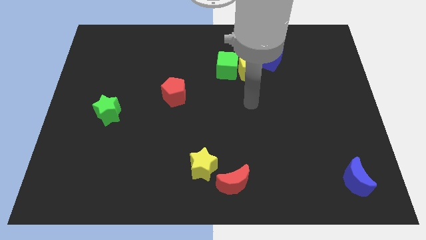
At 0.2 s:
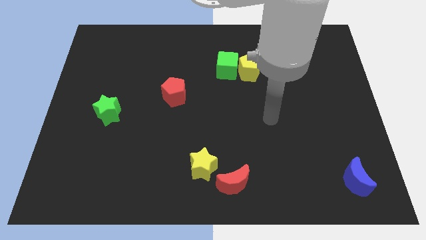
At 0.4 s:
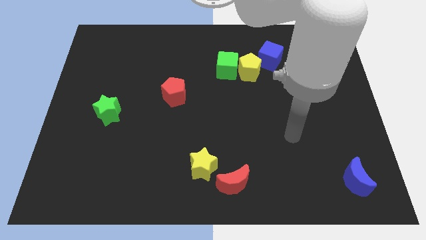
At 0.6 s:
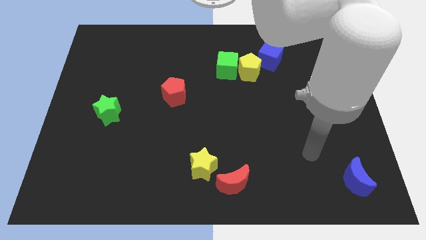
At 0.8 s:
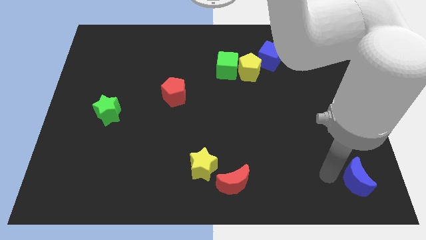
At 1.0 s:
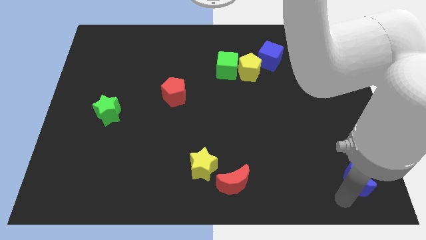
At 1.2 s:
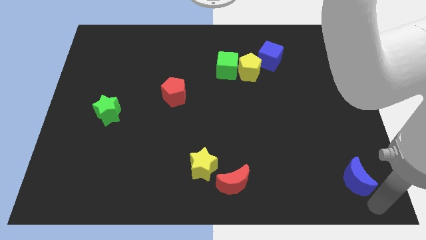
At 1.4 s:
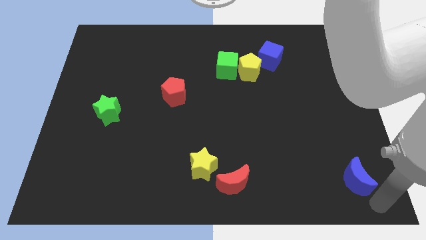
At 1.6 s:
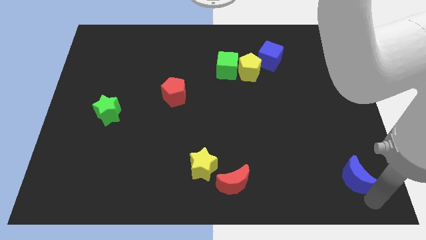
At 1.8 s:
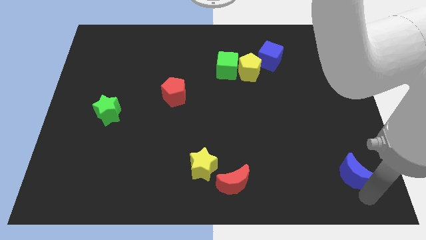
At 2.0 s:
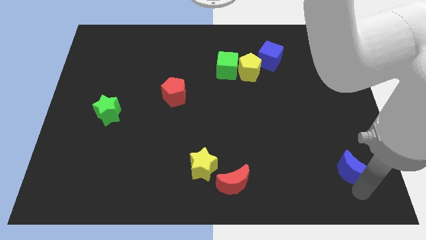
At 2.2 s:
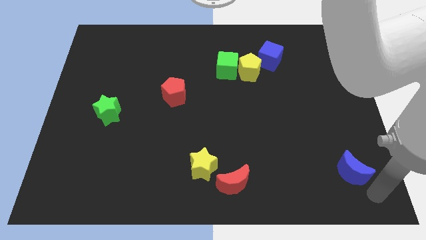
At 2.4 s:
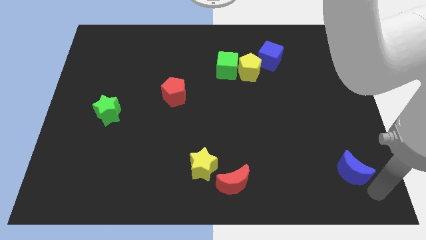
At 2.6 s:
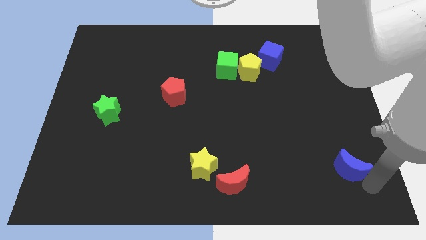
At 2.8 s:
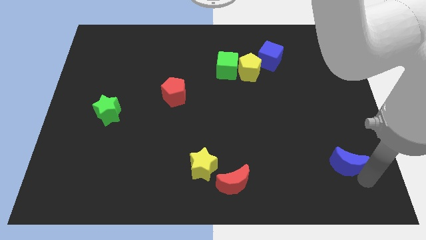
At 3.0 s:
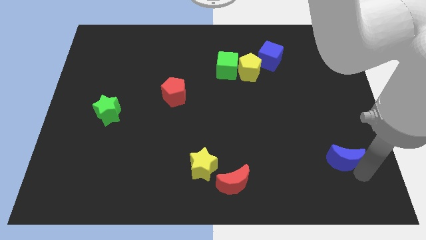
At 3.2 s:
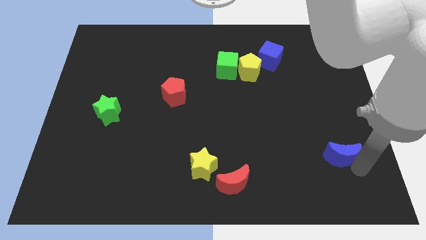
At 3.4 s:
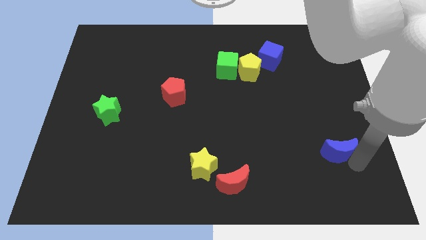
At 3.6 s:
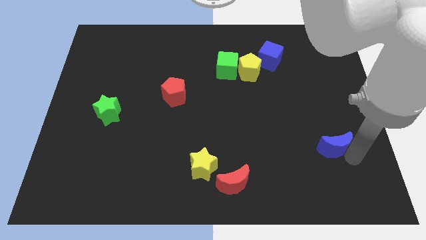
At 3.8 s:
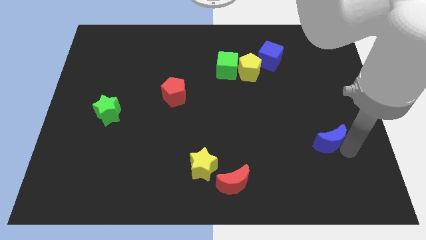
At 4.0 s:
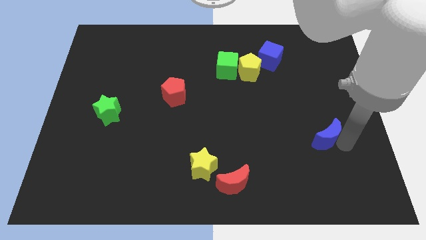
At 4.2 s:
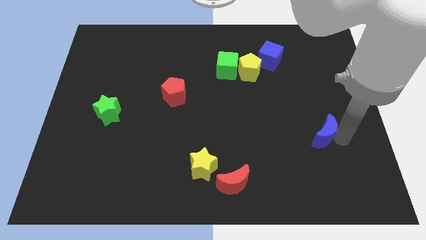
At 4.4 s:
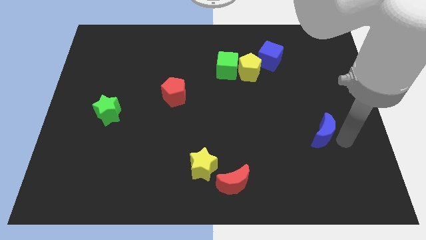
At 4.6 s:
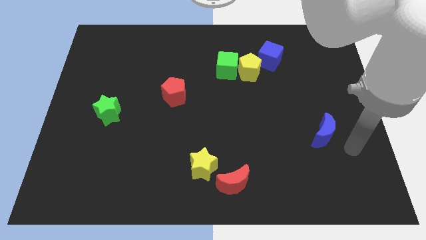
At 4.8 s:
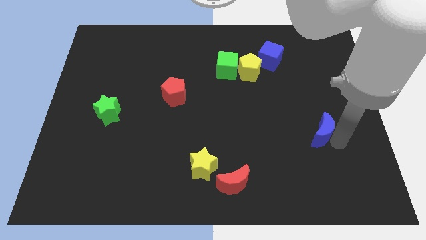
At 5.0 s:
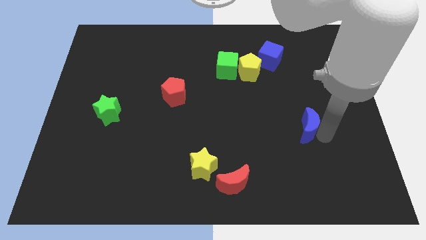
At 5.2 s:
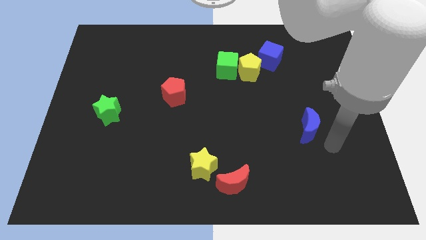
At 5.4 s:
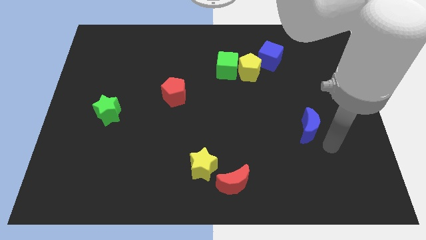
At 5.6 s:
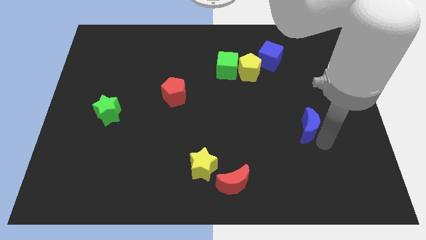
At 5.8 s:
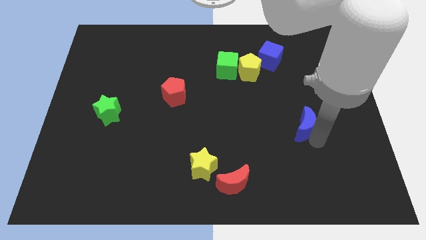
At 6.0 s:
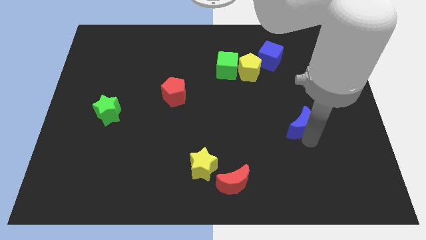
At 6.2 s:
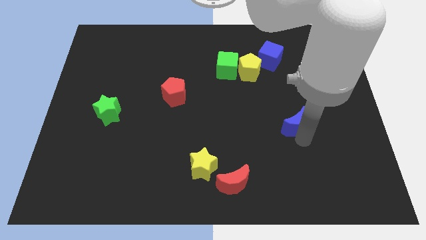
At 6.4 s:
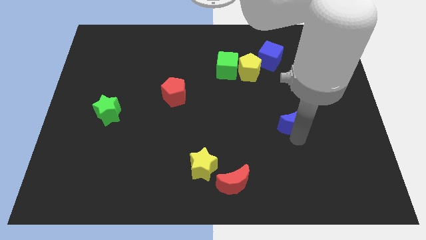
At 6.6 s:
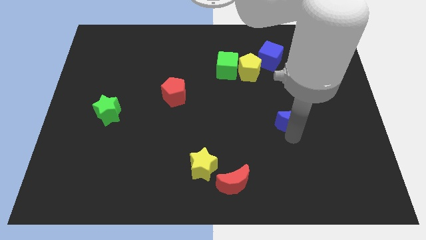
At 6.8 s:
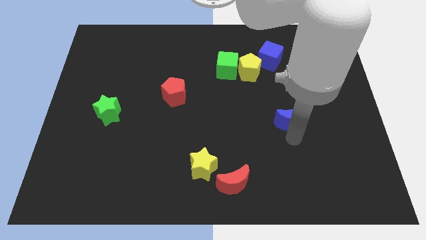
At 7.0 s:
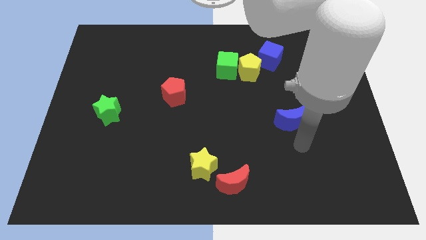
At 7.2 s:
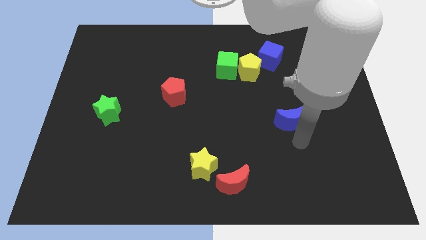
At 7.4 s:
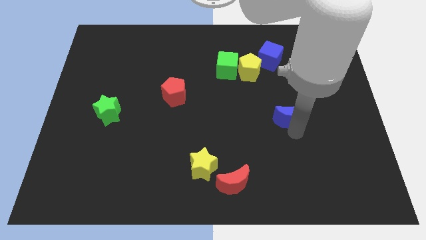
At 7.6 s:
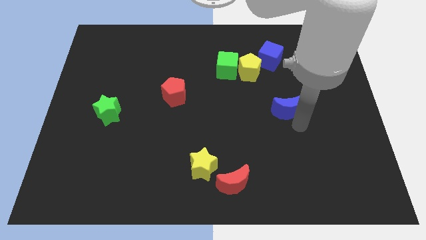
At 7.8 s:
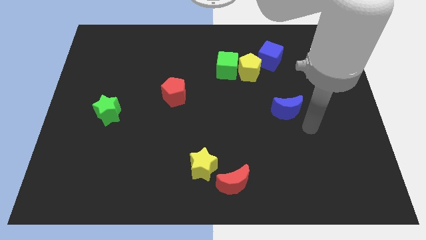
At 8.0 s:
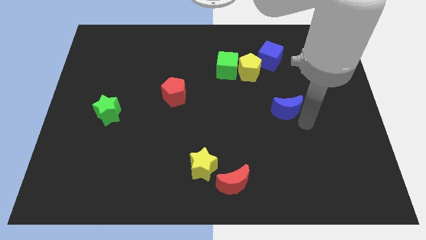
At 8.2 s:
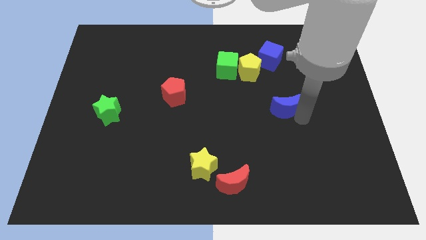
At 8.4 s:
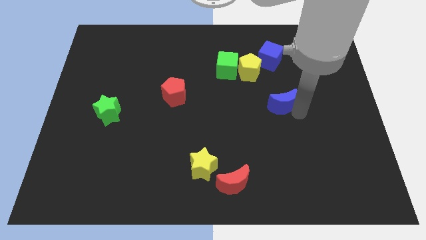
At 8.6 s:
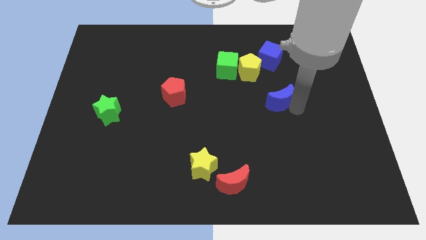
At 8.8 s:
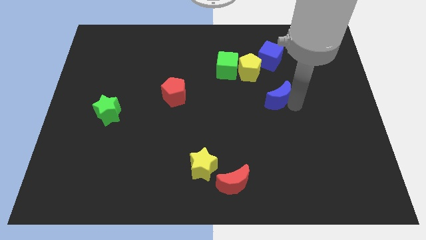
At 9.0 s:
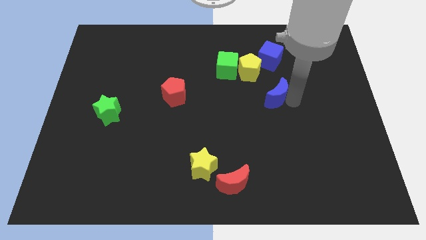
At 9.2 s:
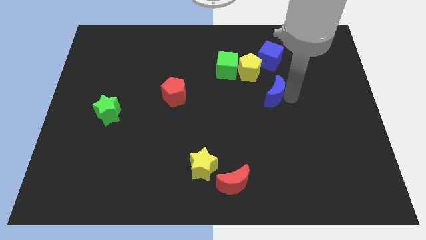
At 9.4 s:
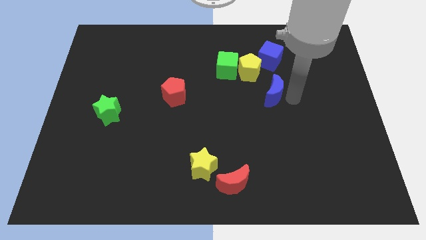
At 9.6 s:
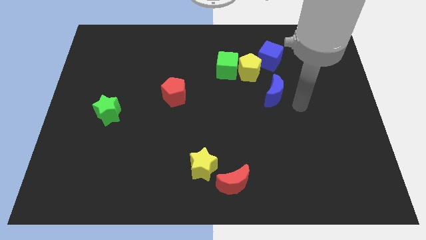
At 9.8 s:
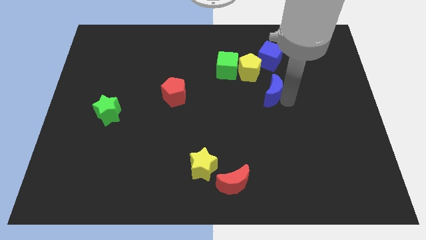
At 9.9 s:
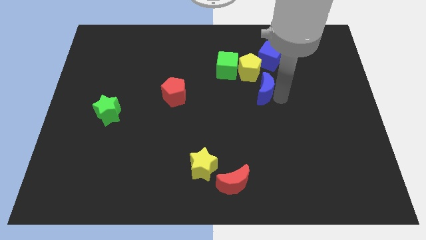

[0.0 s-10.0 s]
put the blue moon diagonally down and to the right of the green cube

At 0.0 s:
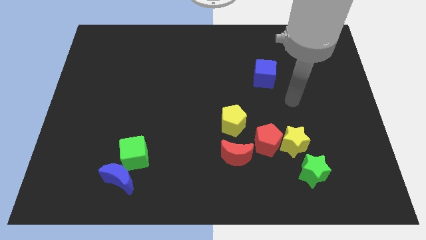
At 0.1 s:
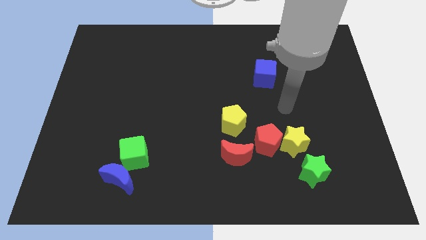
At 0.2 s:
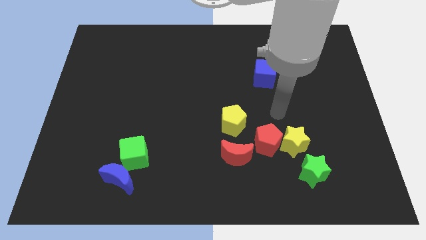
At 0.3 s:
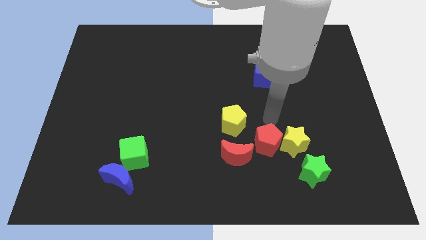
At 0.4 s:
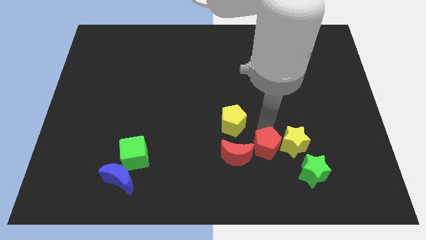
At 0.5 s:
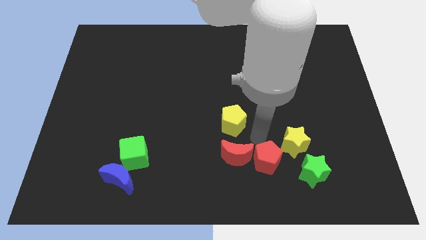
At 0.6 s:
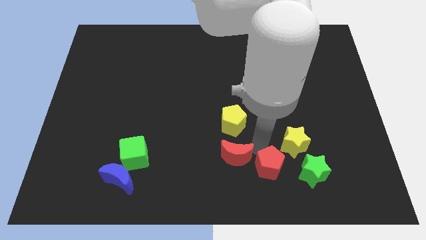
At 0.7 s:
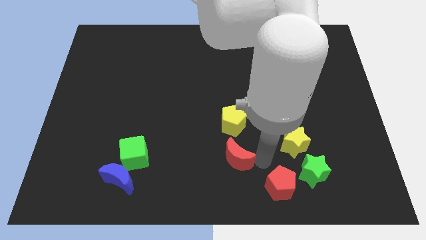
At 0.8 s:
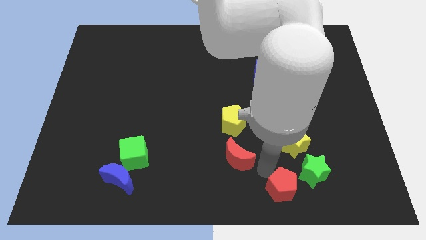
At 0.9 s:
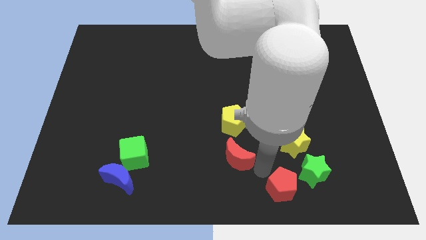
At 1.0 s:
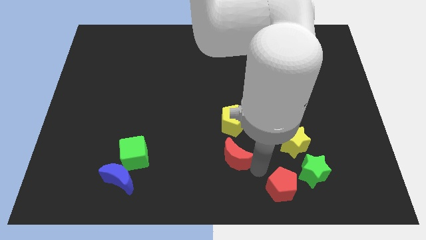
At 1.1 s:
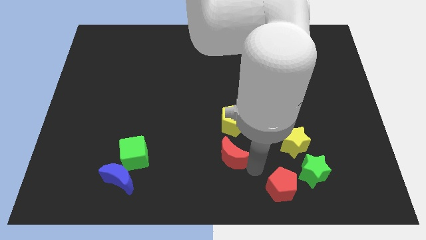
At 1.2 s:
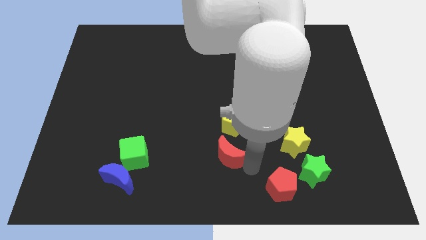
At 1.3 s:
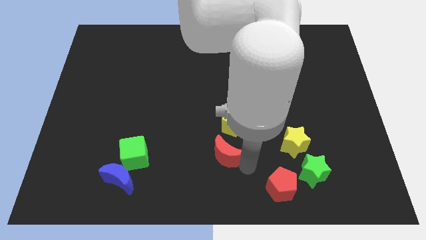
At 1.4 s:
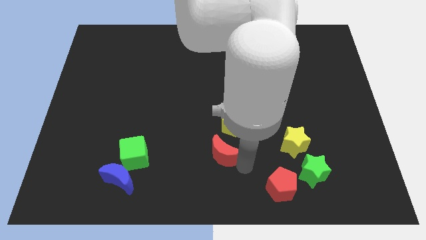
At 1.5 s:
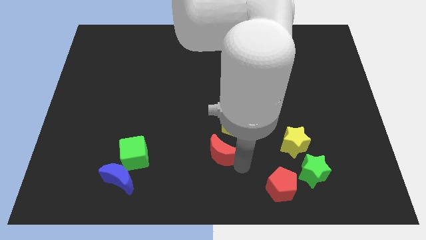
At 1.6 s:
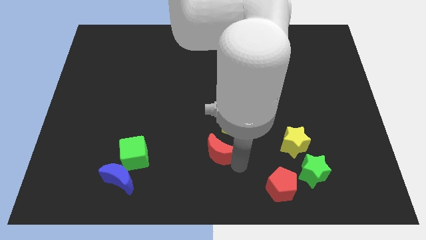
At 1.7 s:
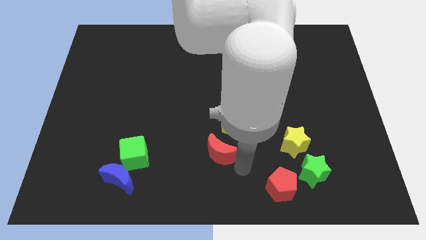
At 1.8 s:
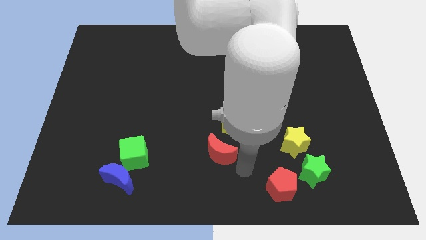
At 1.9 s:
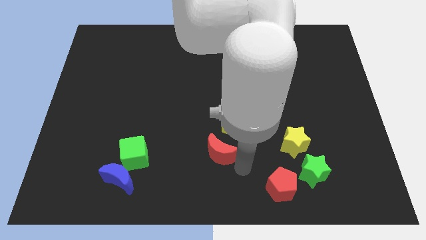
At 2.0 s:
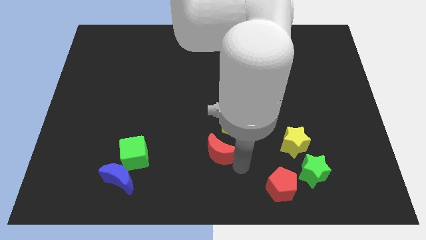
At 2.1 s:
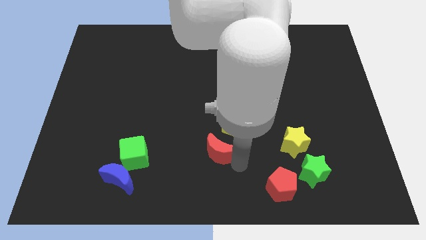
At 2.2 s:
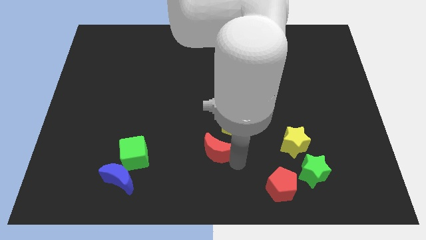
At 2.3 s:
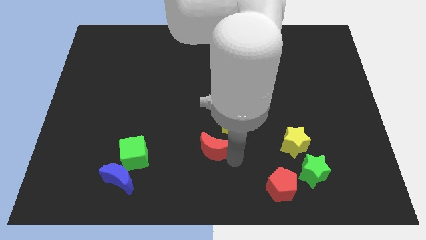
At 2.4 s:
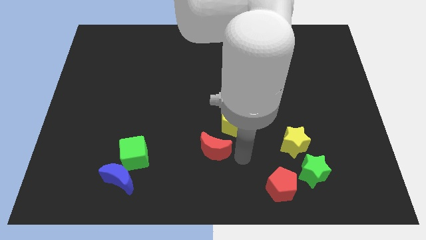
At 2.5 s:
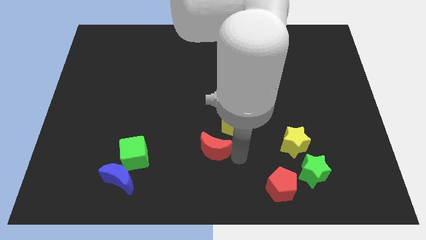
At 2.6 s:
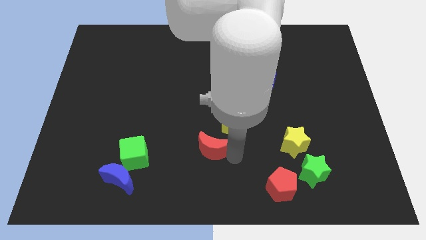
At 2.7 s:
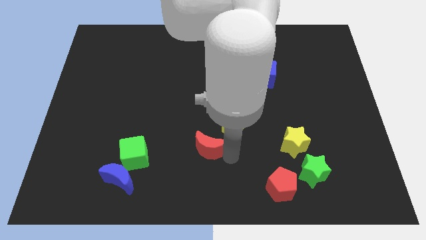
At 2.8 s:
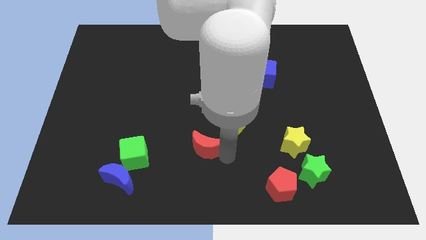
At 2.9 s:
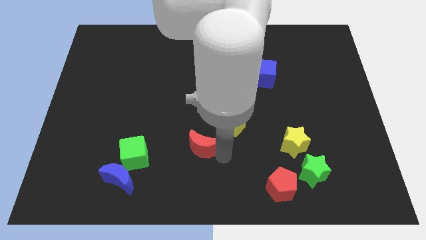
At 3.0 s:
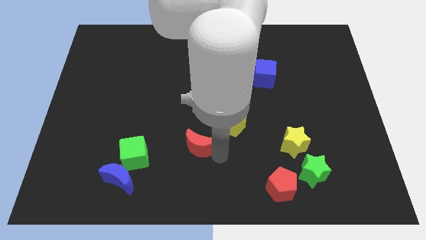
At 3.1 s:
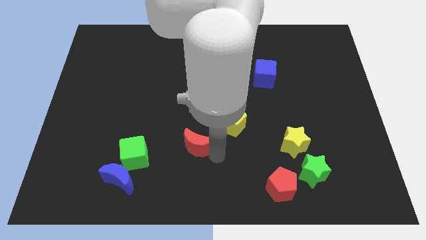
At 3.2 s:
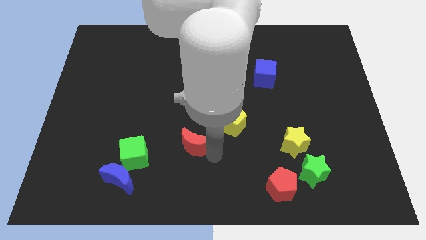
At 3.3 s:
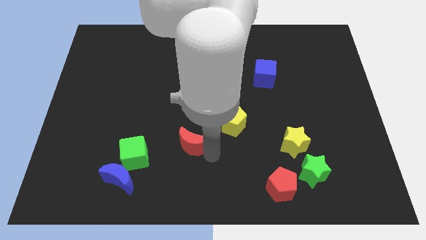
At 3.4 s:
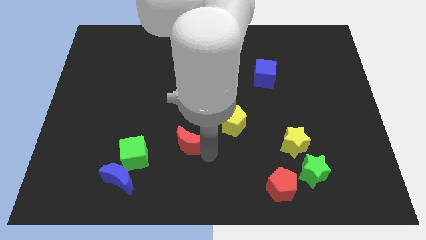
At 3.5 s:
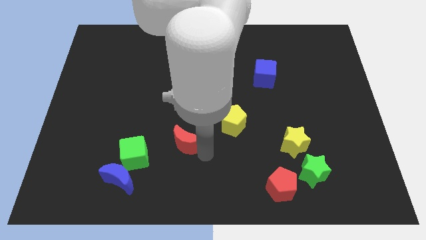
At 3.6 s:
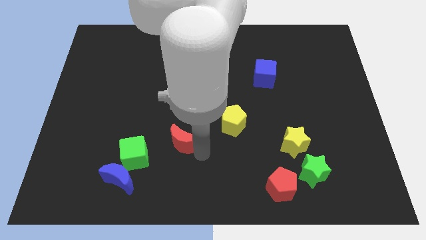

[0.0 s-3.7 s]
slide the red moon to the top right of the green cube
